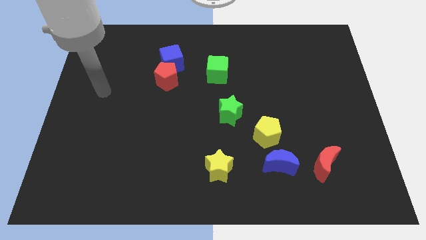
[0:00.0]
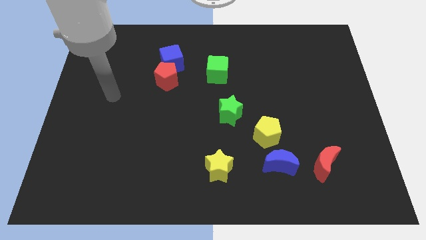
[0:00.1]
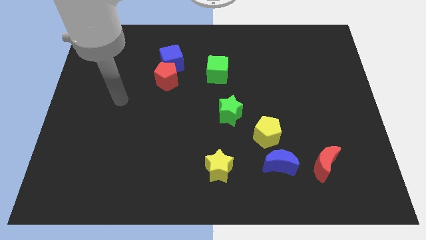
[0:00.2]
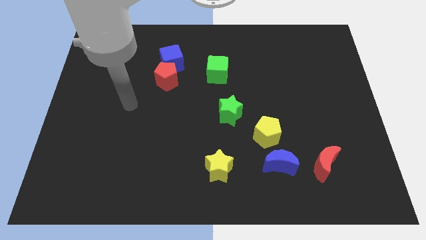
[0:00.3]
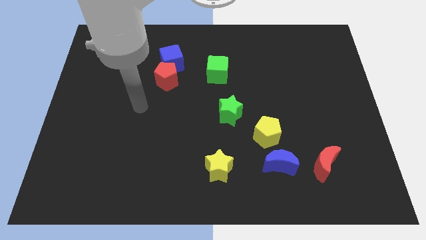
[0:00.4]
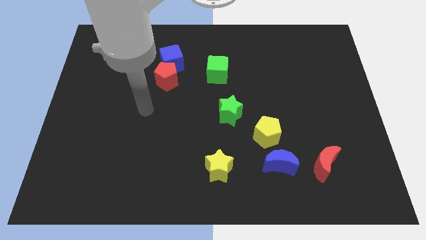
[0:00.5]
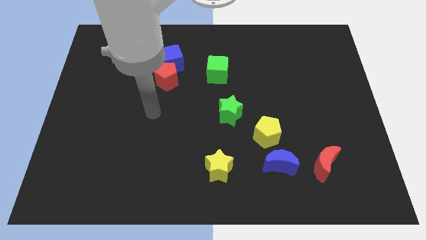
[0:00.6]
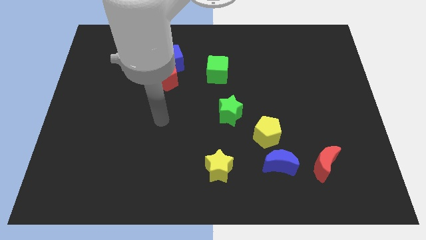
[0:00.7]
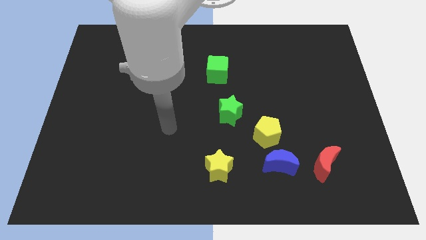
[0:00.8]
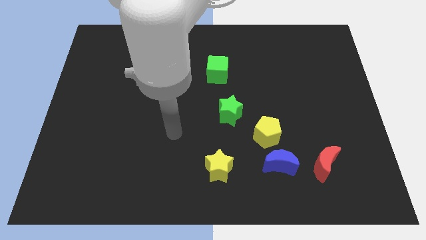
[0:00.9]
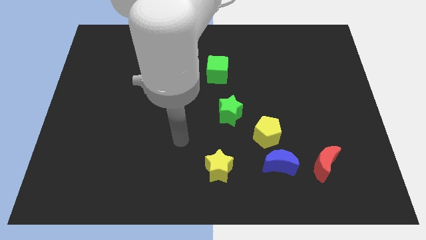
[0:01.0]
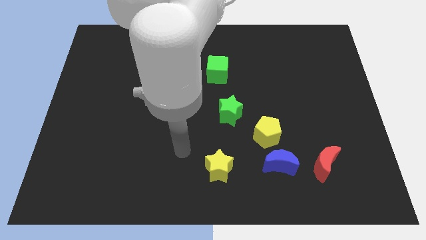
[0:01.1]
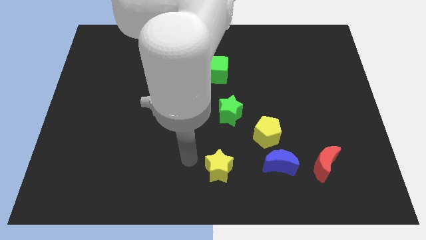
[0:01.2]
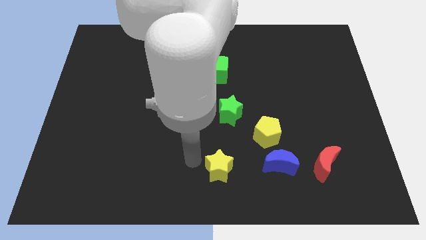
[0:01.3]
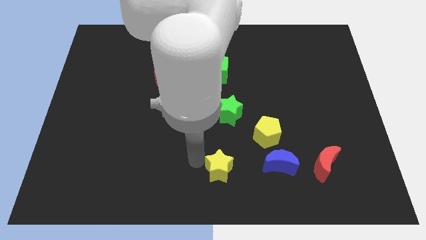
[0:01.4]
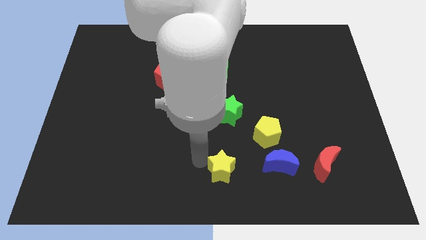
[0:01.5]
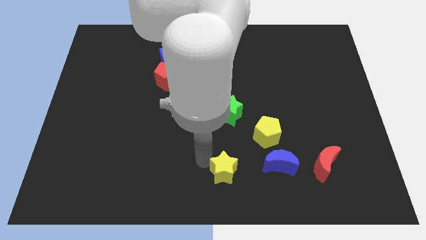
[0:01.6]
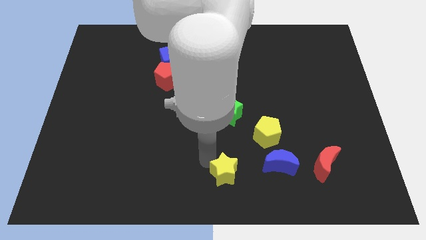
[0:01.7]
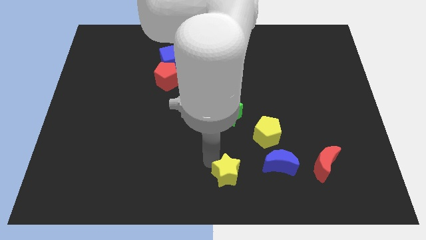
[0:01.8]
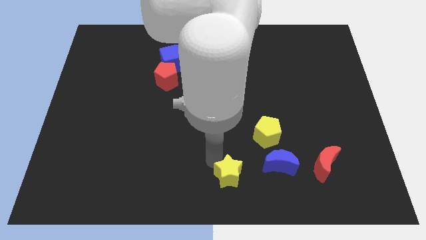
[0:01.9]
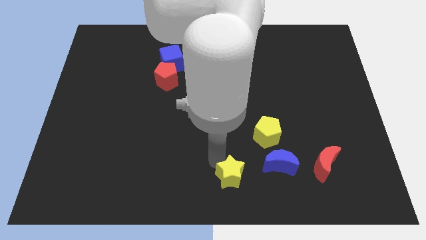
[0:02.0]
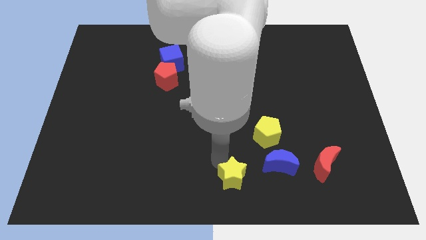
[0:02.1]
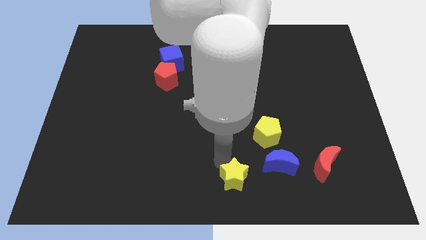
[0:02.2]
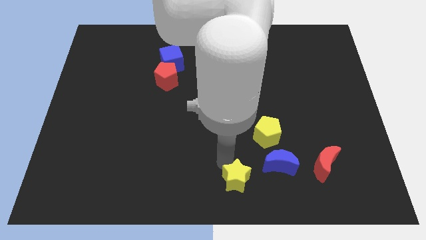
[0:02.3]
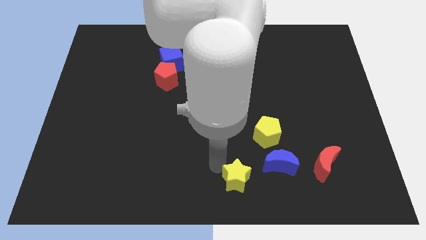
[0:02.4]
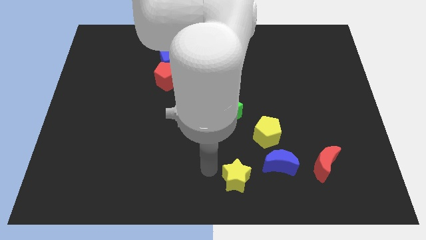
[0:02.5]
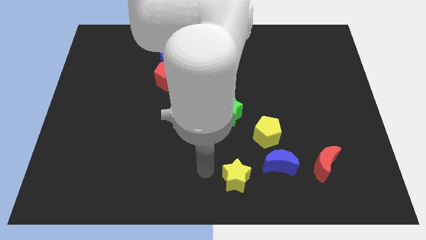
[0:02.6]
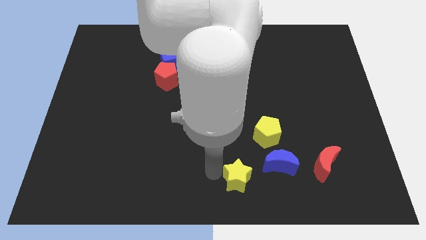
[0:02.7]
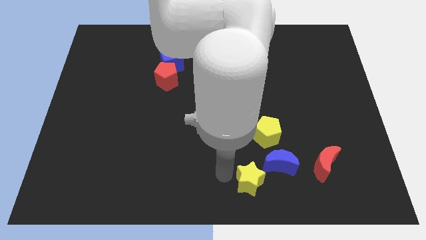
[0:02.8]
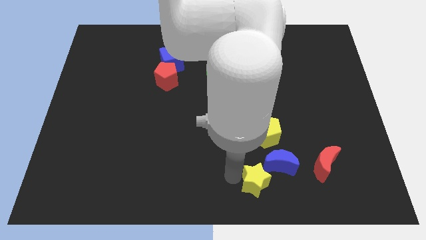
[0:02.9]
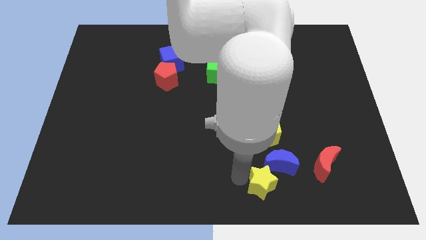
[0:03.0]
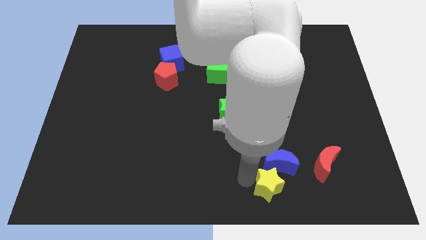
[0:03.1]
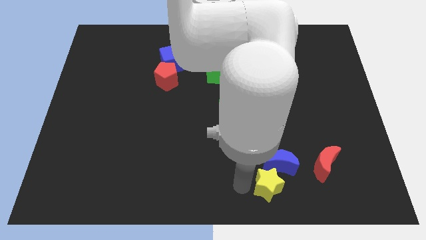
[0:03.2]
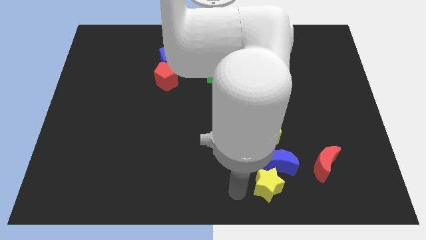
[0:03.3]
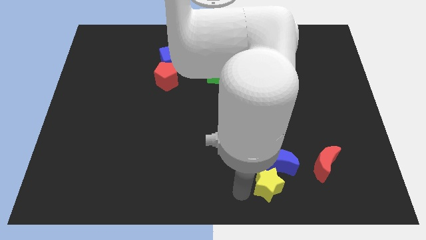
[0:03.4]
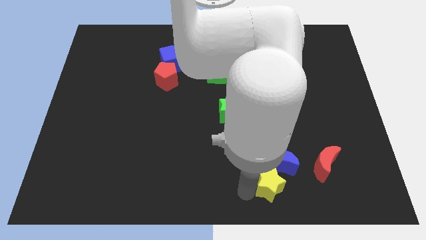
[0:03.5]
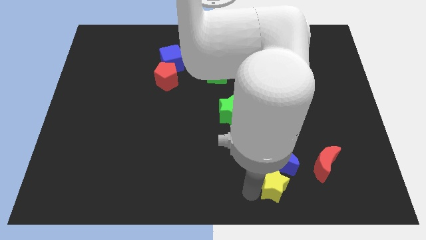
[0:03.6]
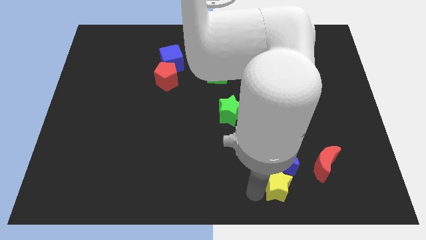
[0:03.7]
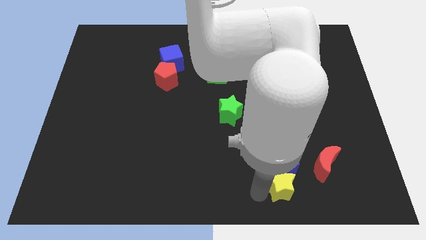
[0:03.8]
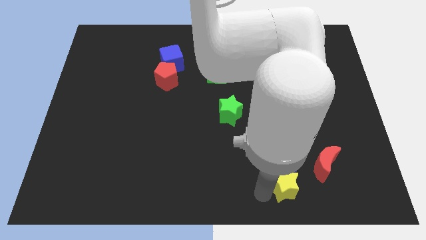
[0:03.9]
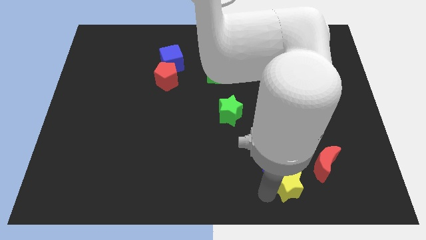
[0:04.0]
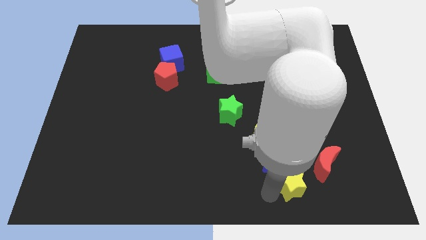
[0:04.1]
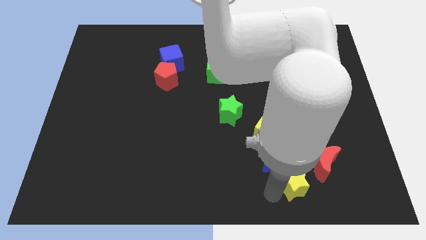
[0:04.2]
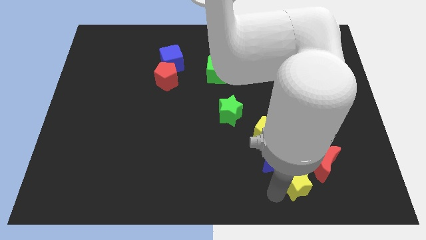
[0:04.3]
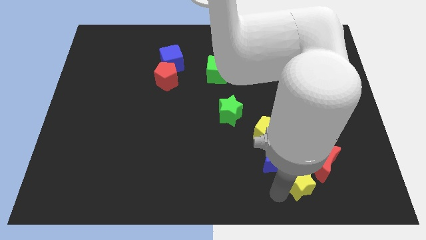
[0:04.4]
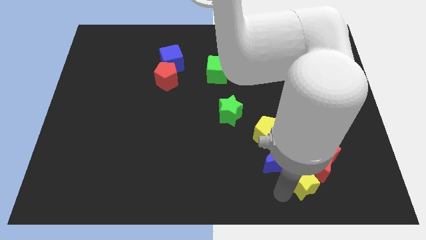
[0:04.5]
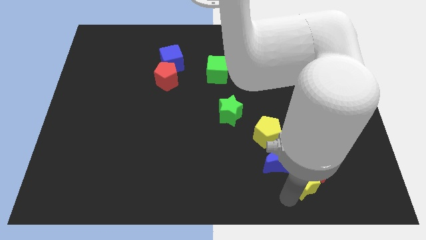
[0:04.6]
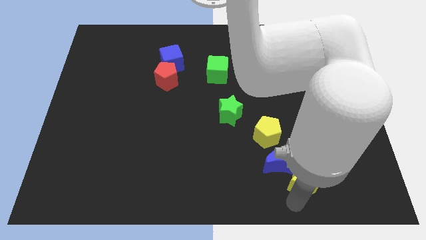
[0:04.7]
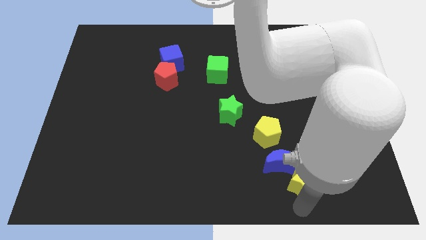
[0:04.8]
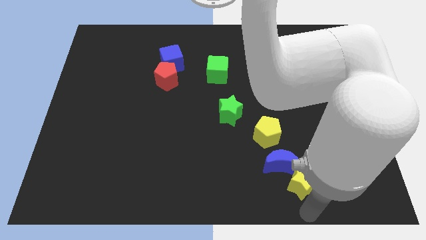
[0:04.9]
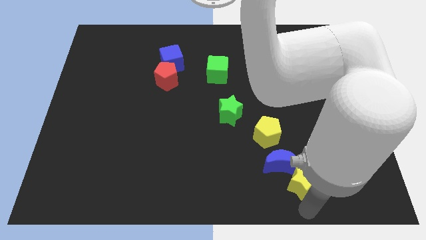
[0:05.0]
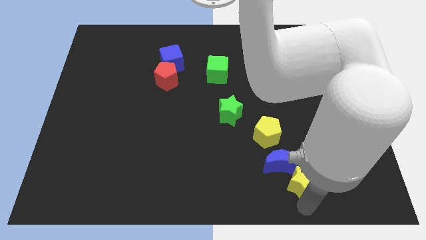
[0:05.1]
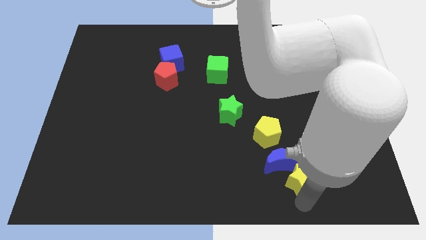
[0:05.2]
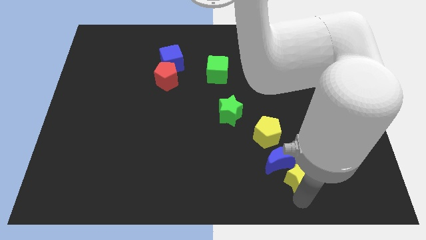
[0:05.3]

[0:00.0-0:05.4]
slide the yellow star diagonally down and to the right of the yellow pentagon

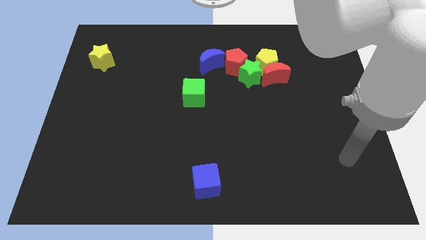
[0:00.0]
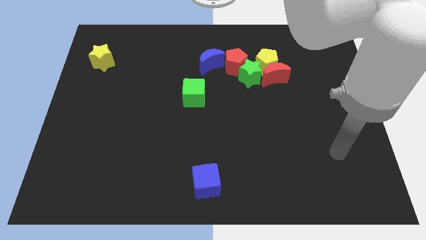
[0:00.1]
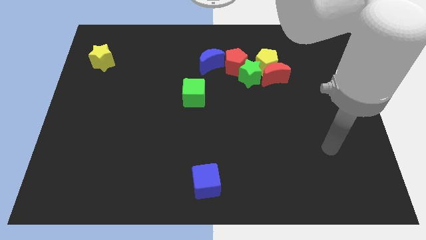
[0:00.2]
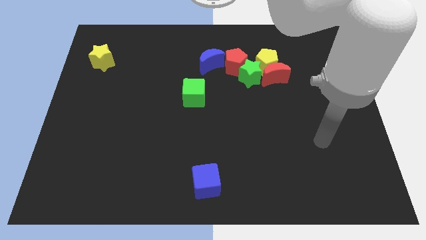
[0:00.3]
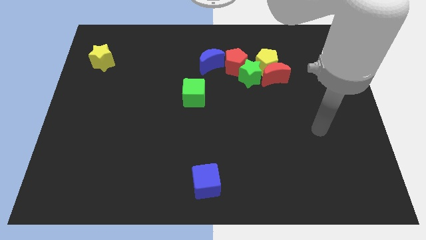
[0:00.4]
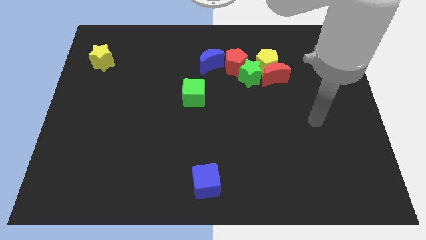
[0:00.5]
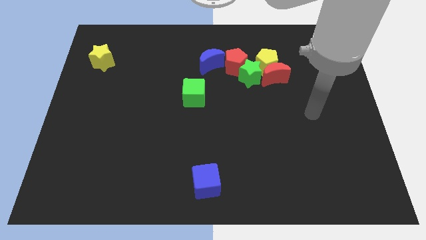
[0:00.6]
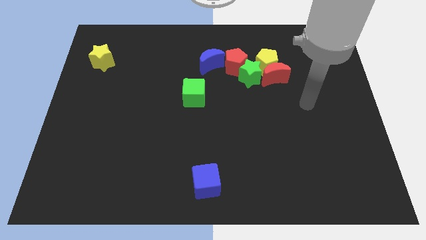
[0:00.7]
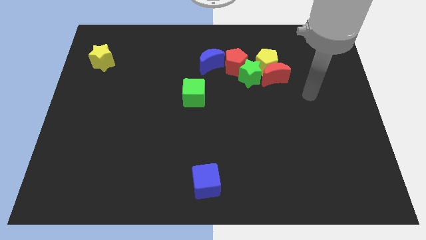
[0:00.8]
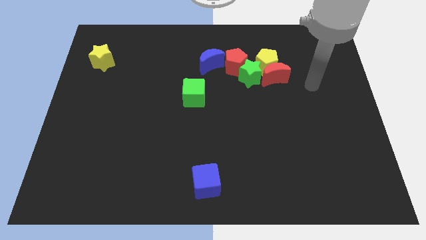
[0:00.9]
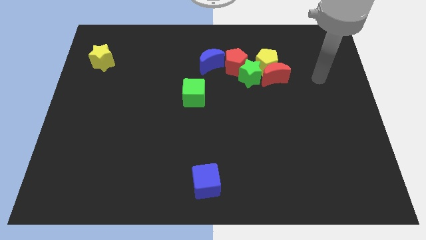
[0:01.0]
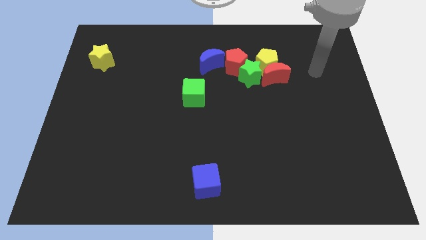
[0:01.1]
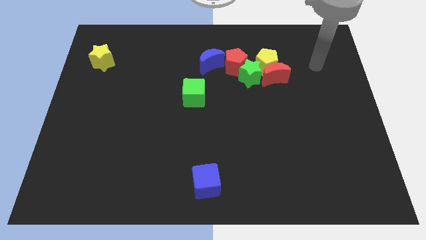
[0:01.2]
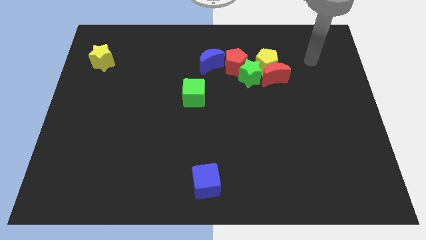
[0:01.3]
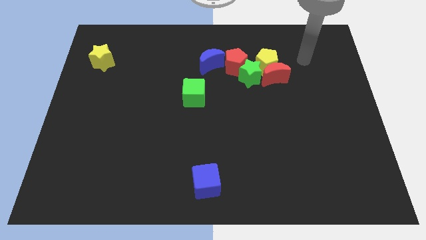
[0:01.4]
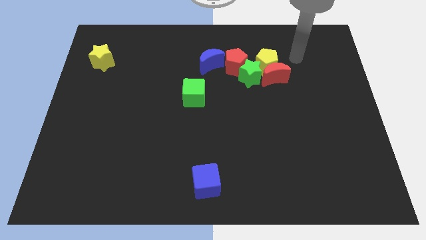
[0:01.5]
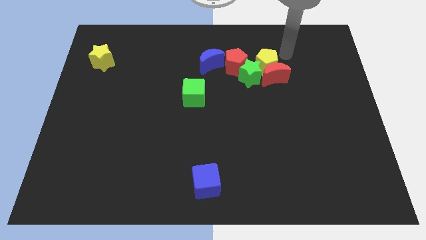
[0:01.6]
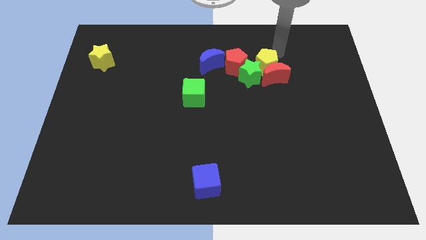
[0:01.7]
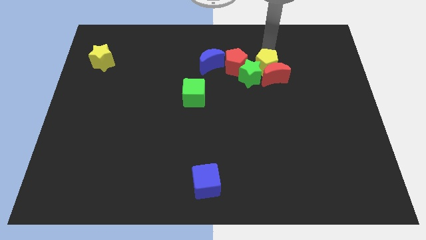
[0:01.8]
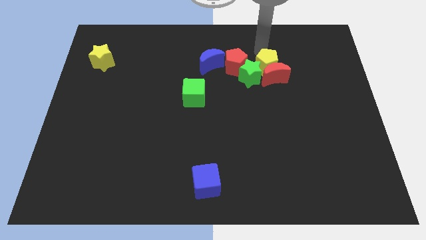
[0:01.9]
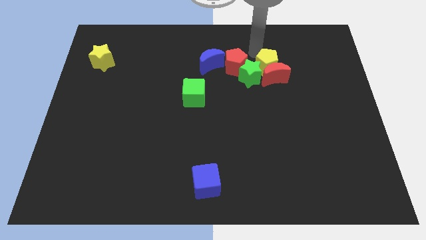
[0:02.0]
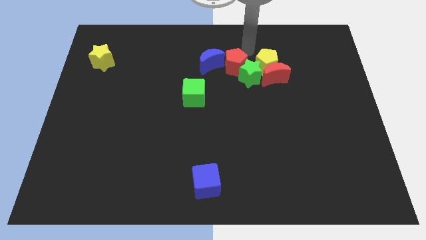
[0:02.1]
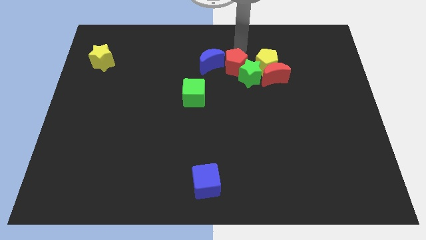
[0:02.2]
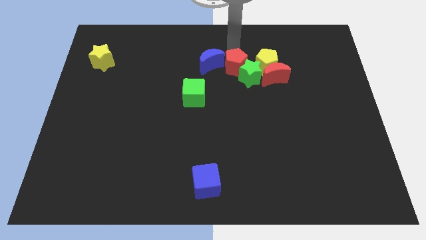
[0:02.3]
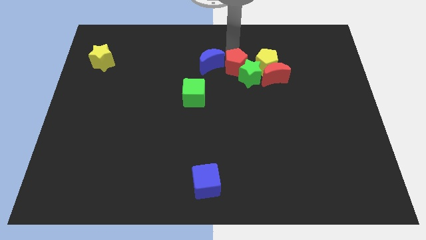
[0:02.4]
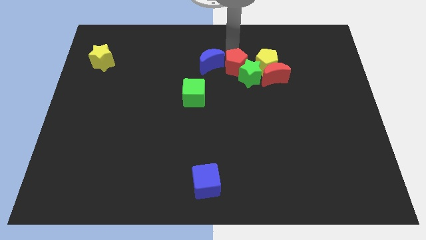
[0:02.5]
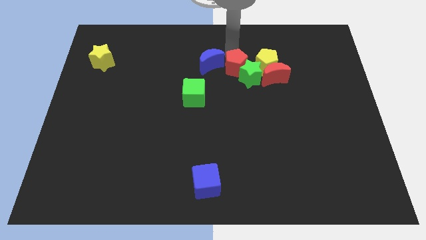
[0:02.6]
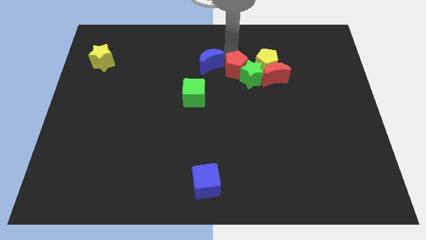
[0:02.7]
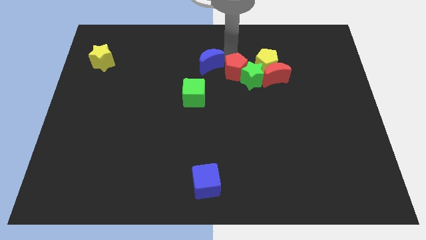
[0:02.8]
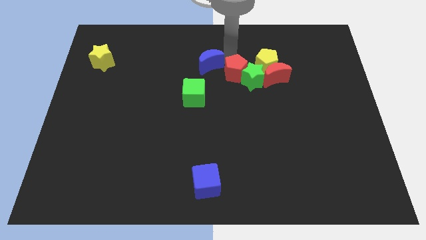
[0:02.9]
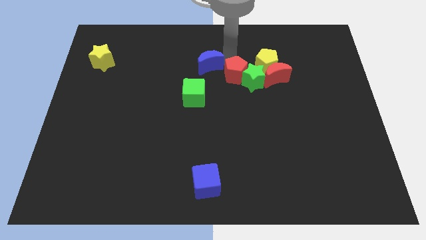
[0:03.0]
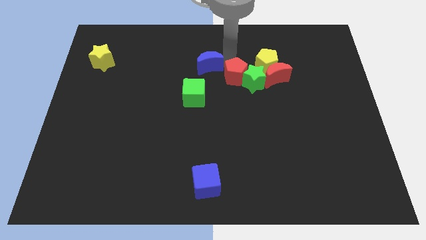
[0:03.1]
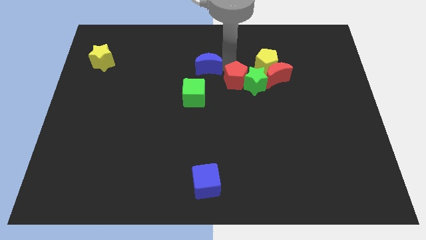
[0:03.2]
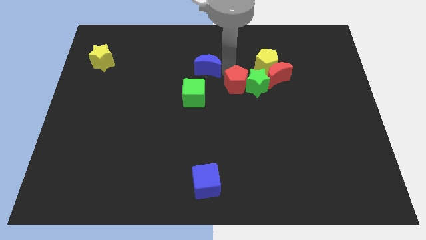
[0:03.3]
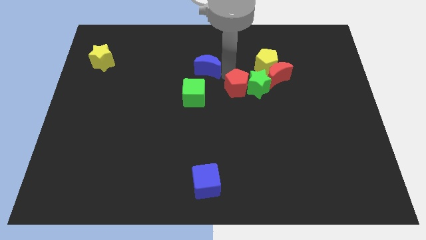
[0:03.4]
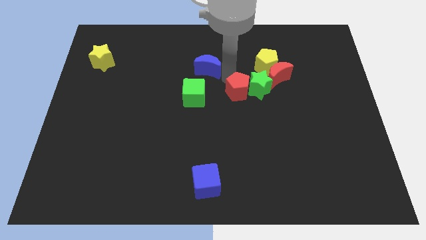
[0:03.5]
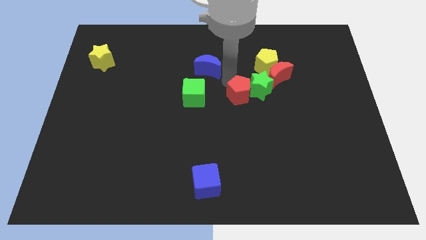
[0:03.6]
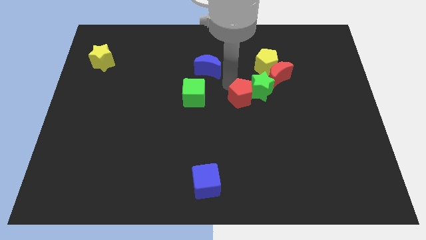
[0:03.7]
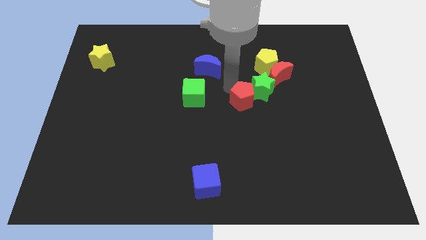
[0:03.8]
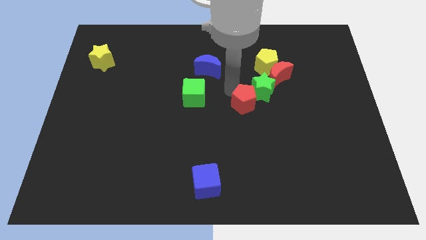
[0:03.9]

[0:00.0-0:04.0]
move the red pentagon to the bottom side of the green star
